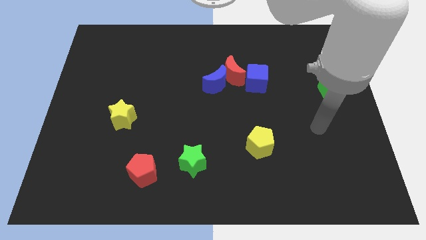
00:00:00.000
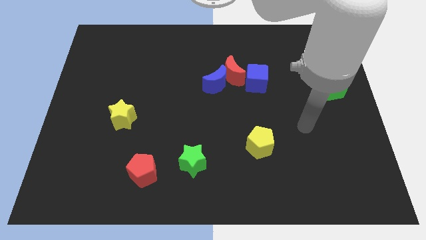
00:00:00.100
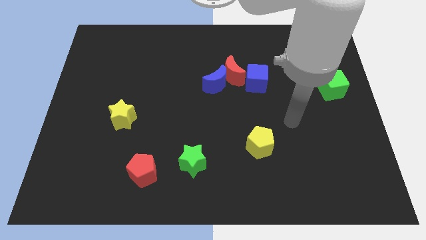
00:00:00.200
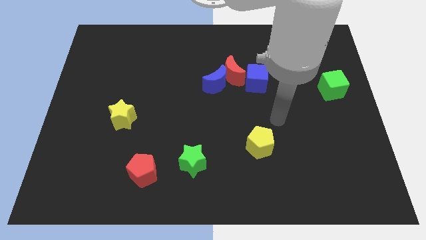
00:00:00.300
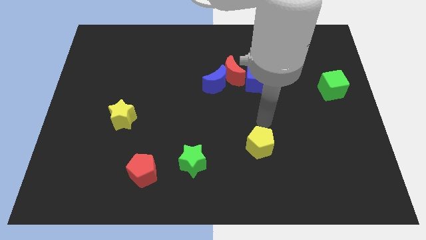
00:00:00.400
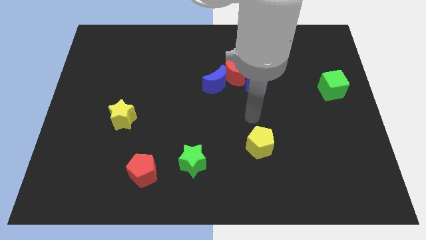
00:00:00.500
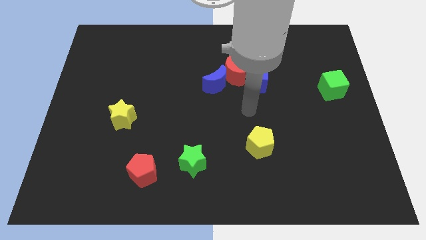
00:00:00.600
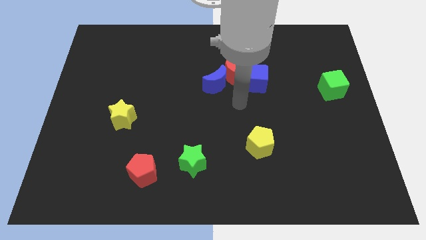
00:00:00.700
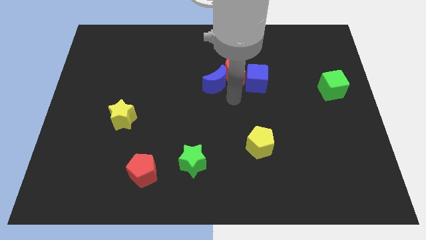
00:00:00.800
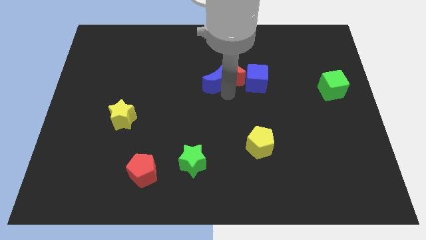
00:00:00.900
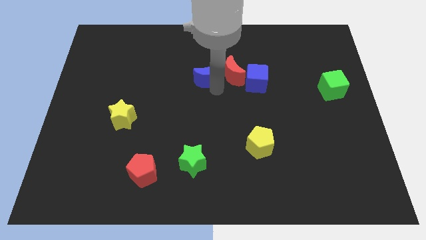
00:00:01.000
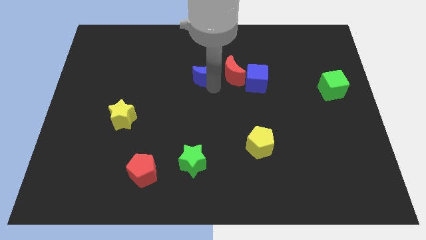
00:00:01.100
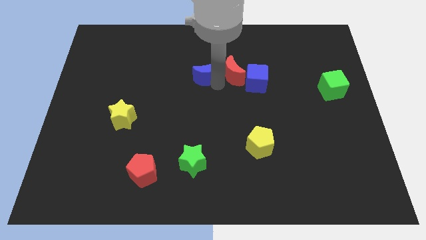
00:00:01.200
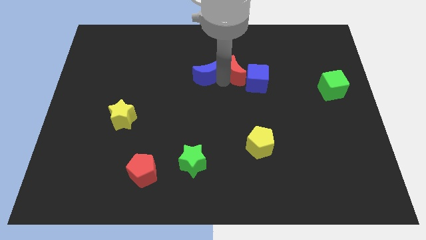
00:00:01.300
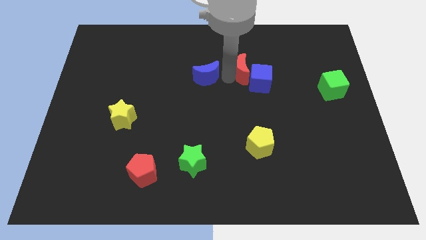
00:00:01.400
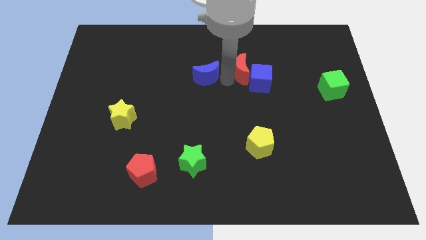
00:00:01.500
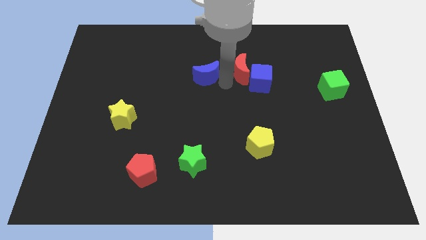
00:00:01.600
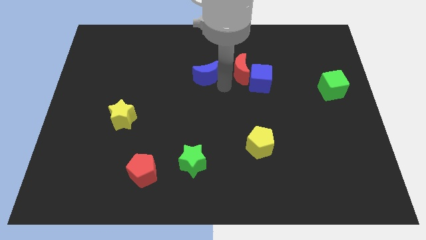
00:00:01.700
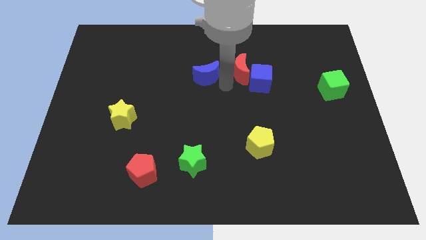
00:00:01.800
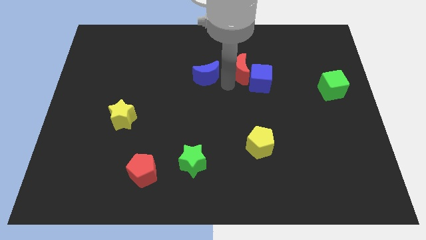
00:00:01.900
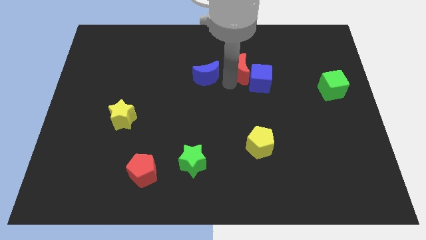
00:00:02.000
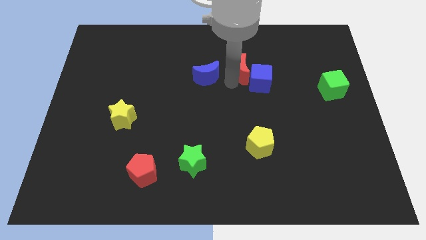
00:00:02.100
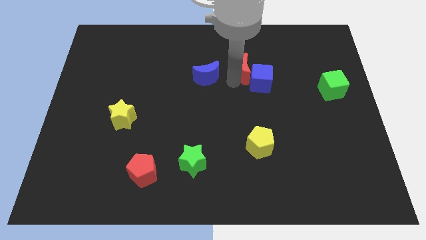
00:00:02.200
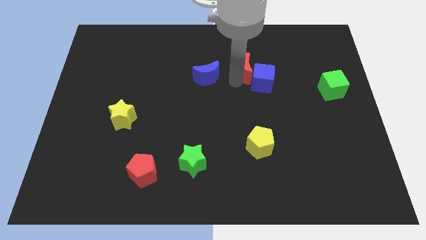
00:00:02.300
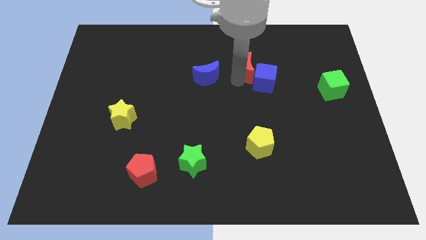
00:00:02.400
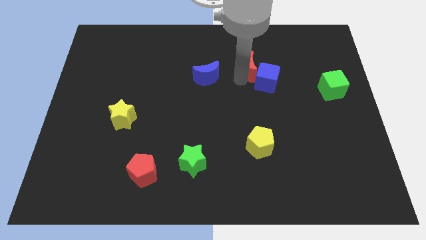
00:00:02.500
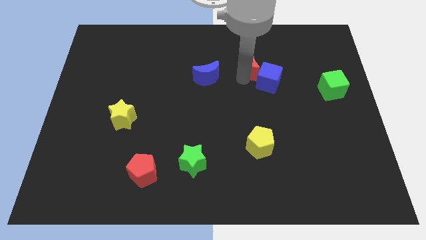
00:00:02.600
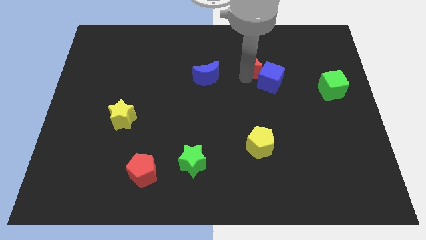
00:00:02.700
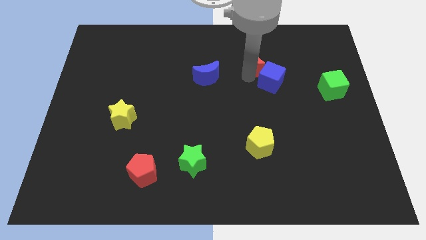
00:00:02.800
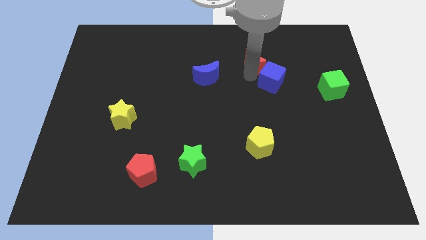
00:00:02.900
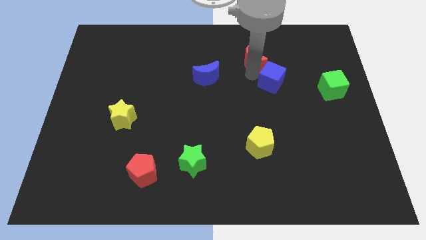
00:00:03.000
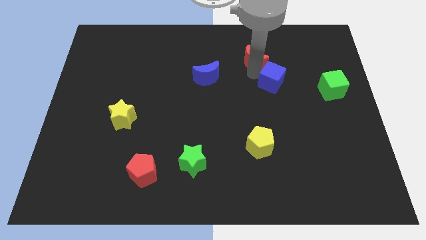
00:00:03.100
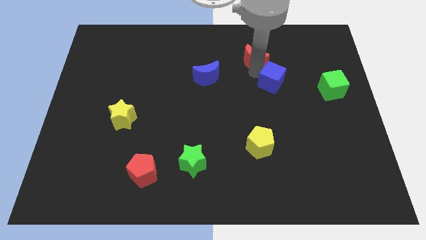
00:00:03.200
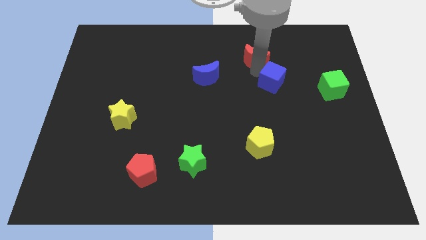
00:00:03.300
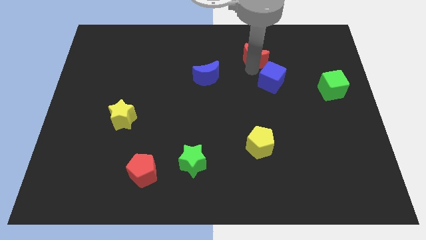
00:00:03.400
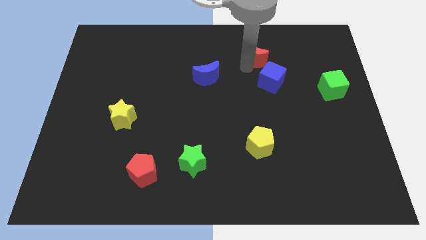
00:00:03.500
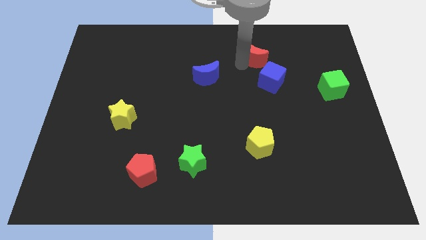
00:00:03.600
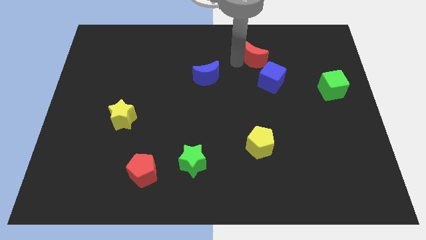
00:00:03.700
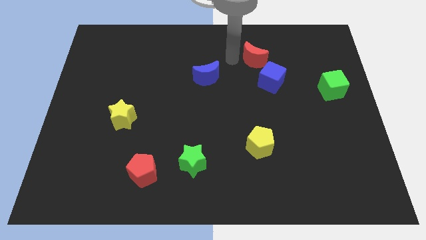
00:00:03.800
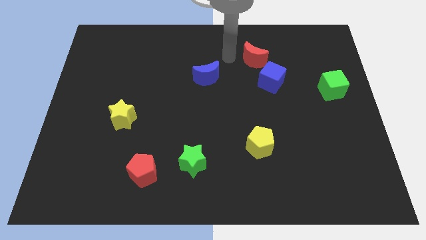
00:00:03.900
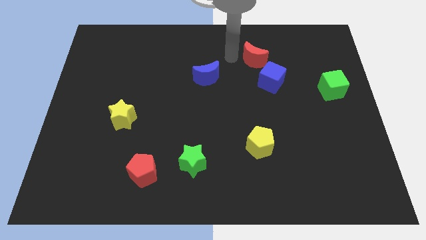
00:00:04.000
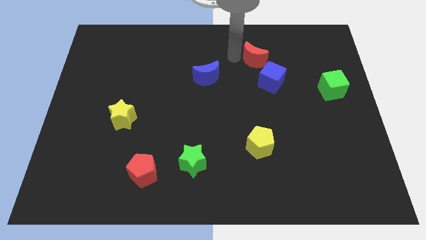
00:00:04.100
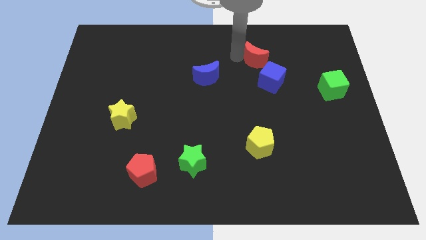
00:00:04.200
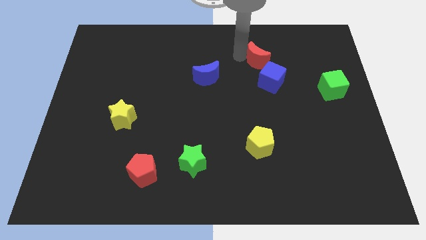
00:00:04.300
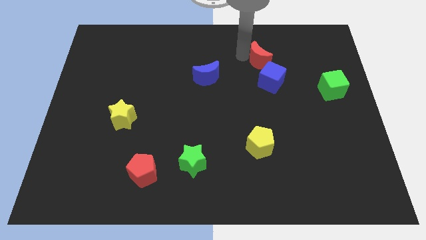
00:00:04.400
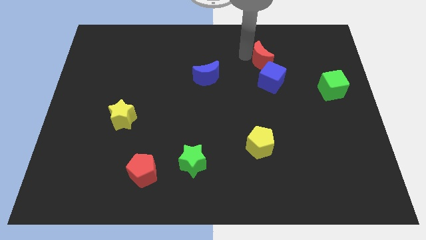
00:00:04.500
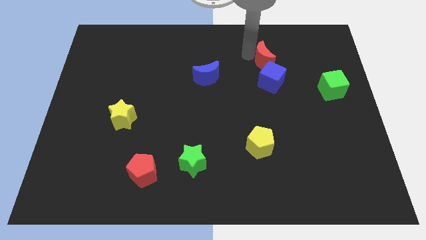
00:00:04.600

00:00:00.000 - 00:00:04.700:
move the red moon to the right slightly

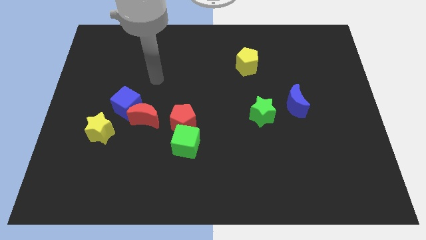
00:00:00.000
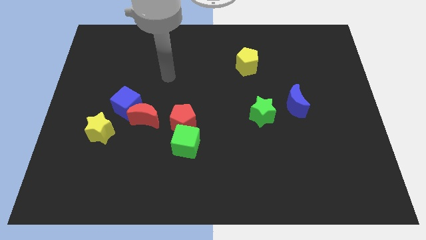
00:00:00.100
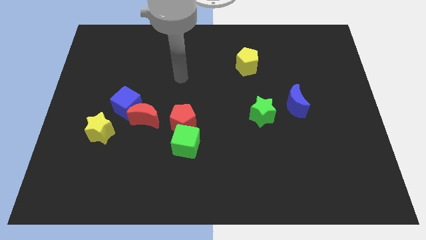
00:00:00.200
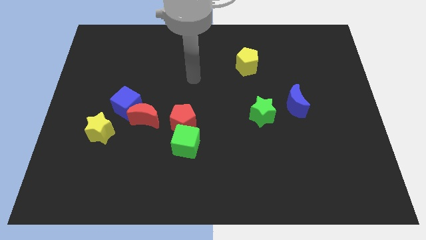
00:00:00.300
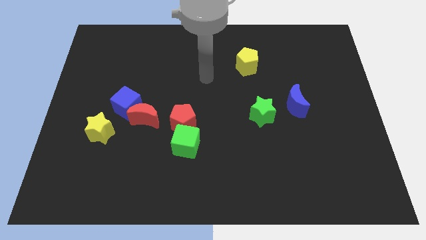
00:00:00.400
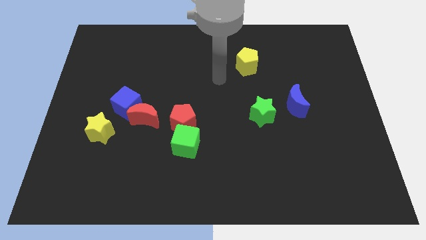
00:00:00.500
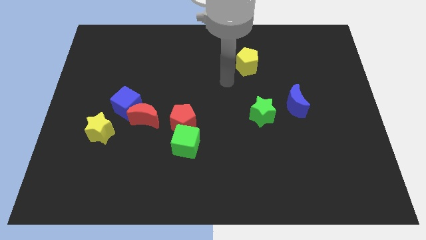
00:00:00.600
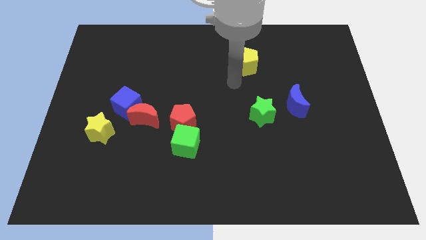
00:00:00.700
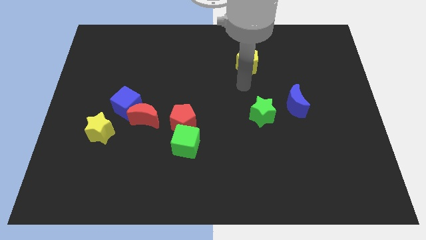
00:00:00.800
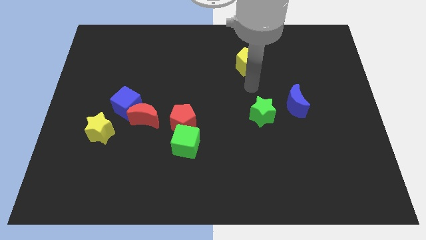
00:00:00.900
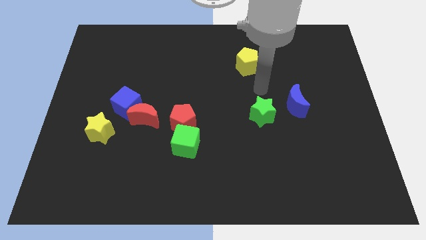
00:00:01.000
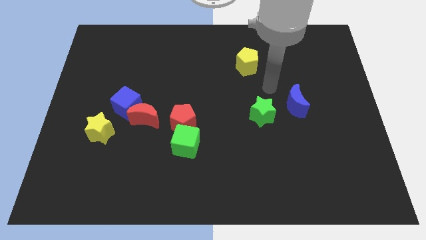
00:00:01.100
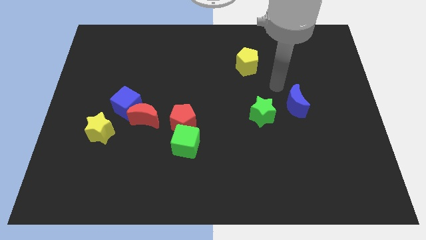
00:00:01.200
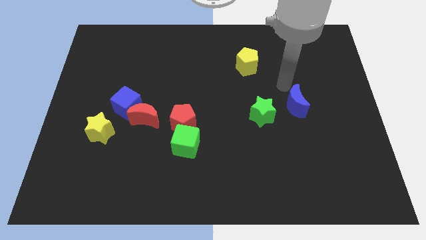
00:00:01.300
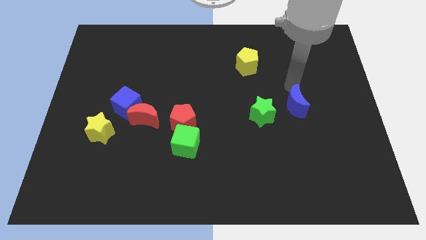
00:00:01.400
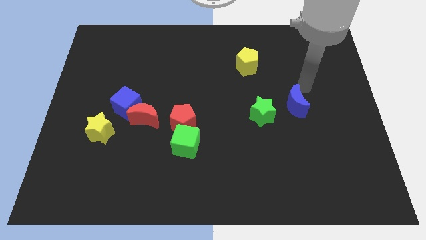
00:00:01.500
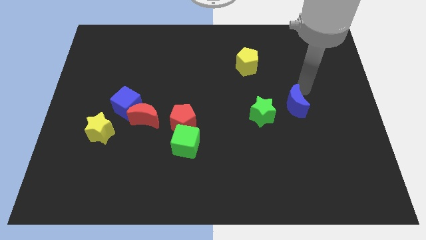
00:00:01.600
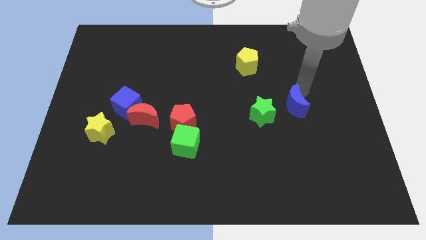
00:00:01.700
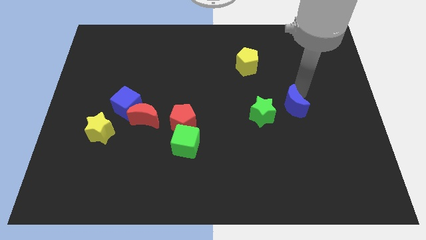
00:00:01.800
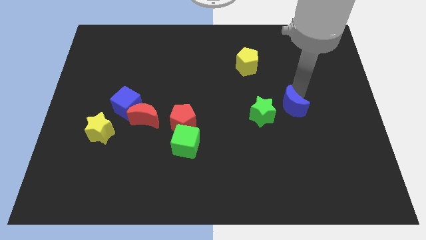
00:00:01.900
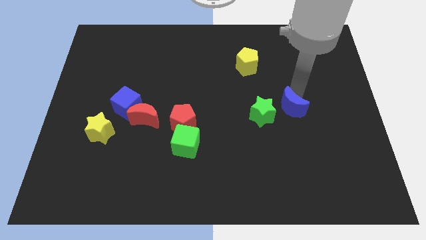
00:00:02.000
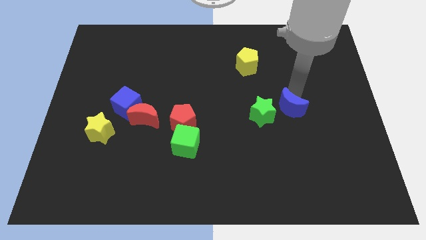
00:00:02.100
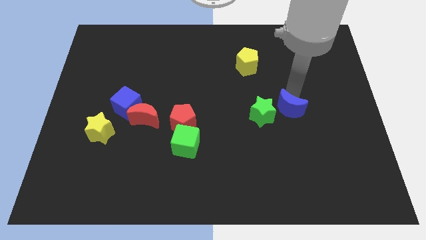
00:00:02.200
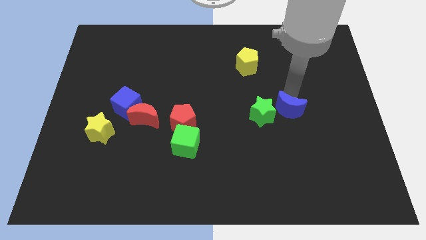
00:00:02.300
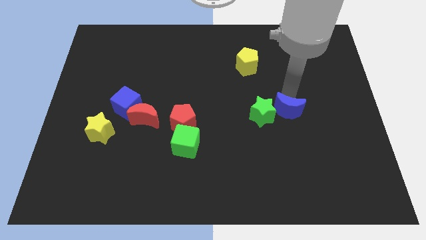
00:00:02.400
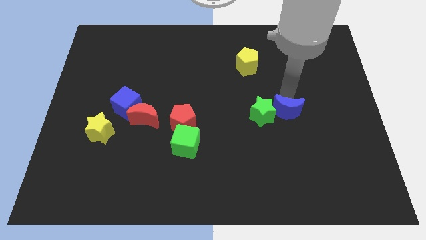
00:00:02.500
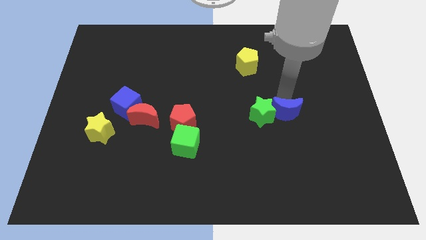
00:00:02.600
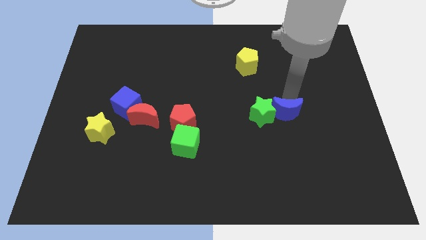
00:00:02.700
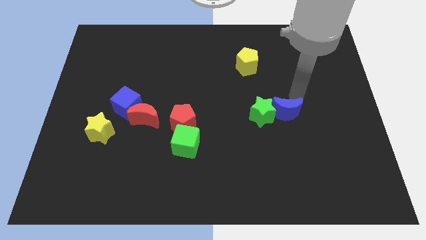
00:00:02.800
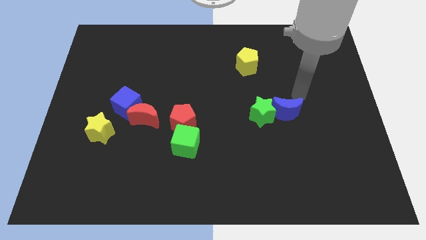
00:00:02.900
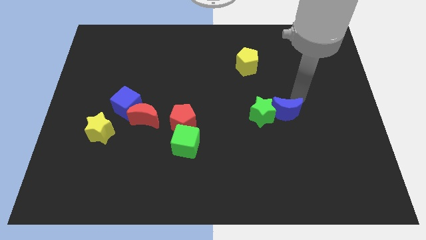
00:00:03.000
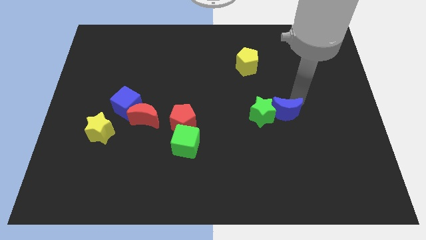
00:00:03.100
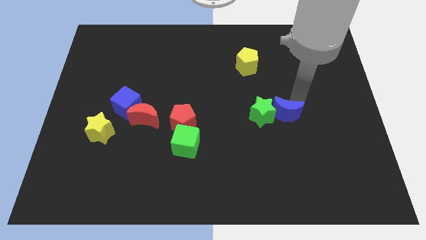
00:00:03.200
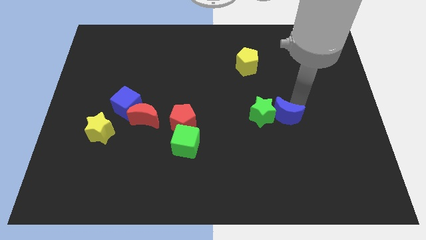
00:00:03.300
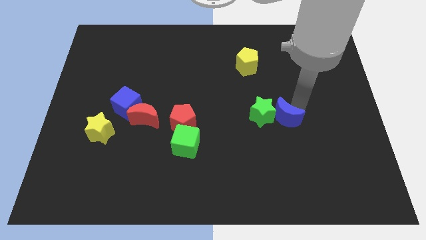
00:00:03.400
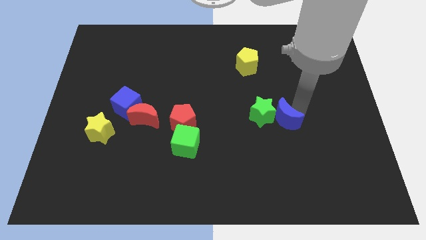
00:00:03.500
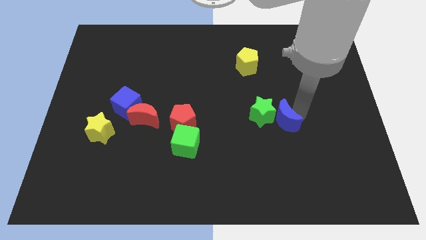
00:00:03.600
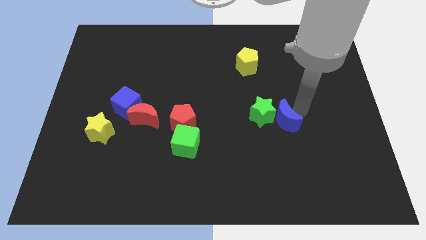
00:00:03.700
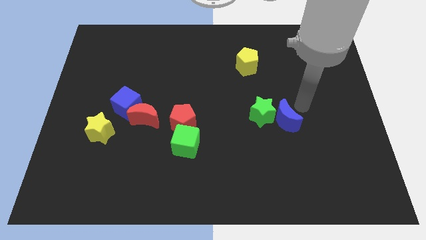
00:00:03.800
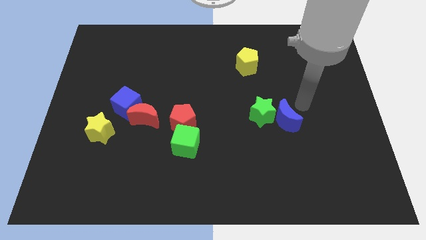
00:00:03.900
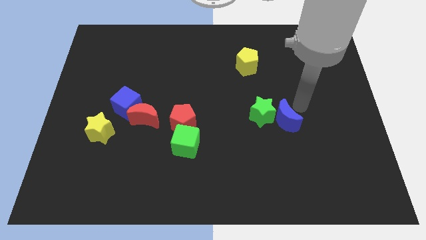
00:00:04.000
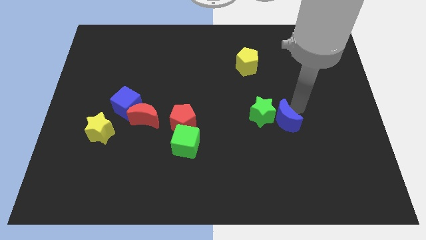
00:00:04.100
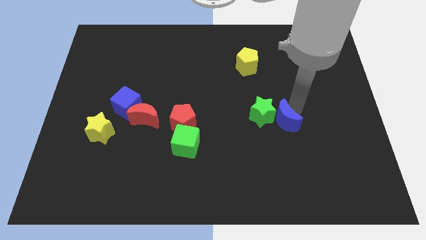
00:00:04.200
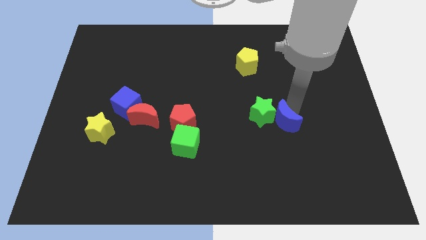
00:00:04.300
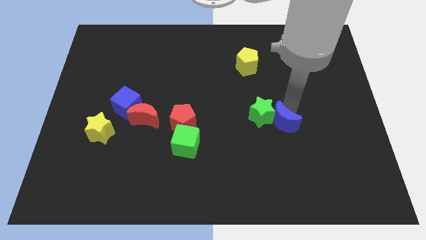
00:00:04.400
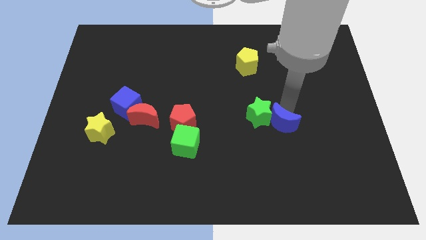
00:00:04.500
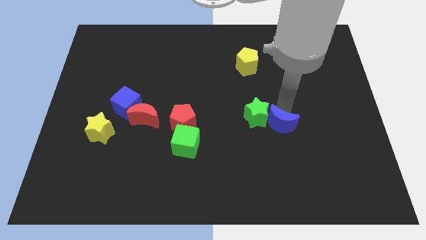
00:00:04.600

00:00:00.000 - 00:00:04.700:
move the blue moon somewhat downwards and then left
